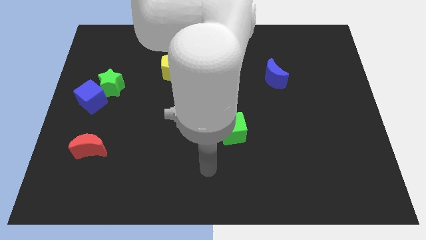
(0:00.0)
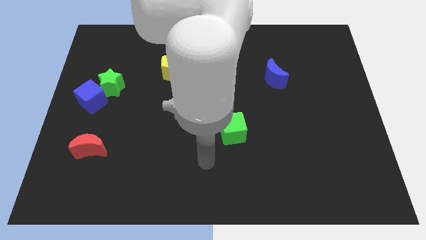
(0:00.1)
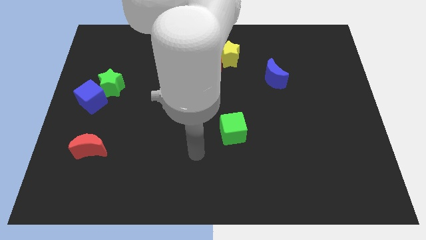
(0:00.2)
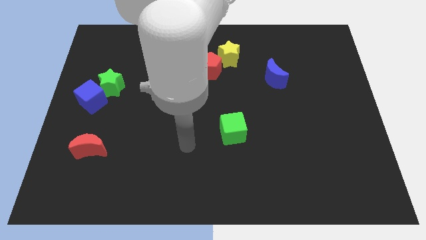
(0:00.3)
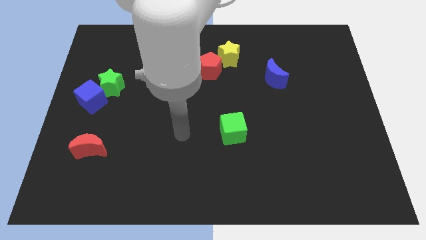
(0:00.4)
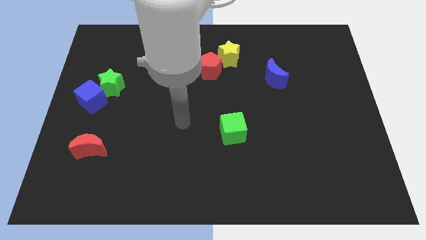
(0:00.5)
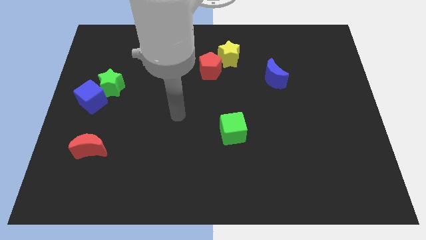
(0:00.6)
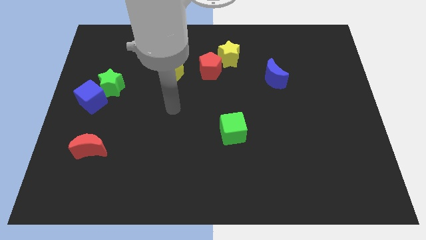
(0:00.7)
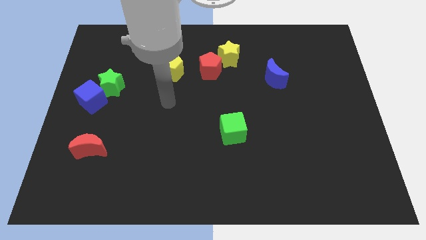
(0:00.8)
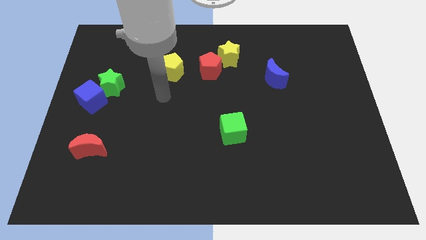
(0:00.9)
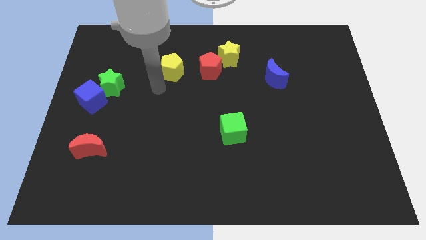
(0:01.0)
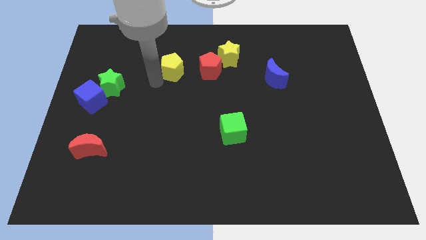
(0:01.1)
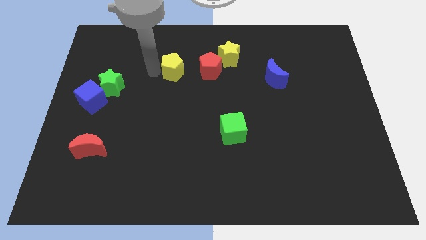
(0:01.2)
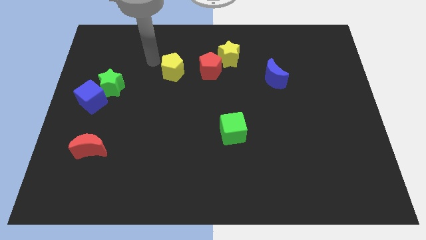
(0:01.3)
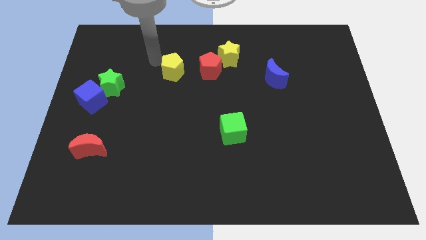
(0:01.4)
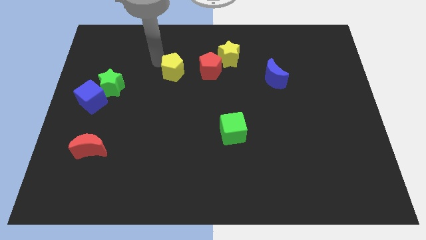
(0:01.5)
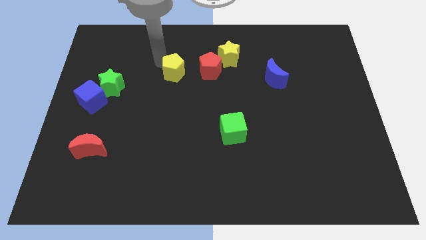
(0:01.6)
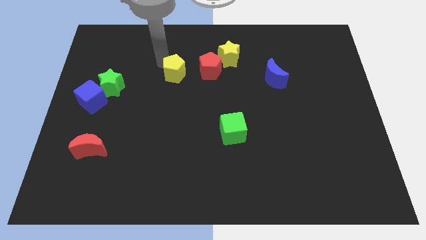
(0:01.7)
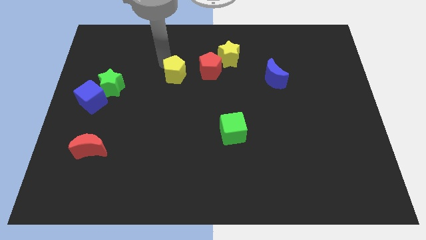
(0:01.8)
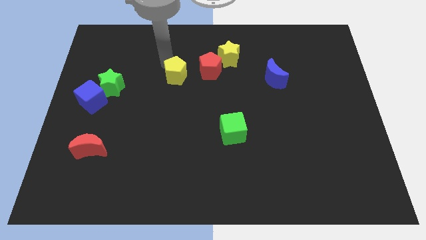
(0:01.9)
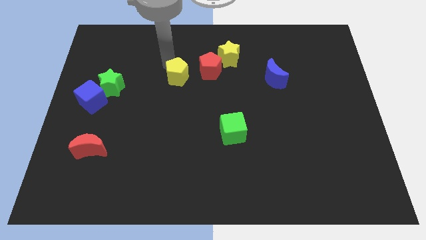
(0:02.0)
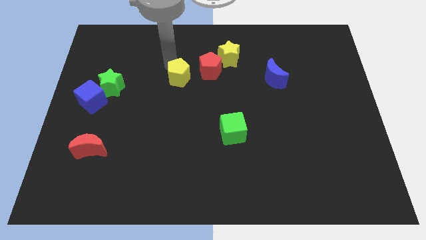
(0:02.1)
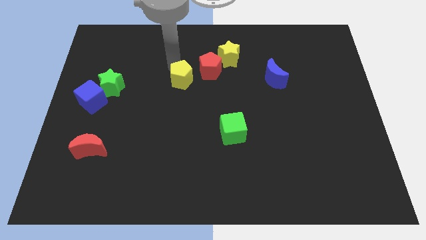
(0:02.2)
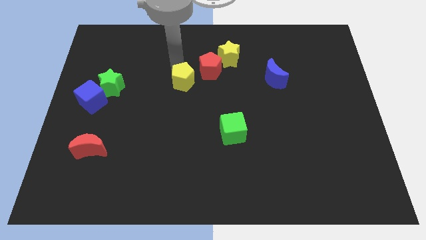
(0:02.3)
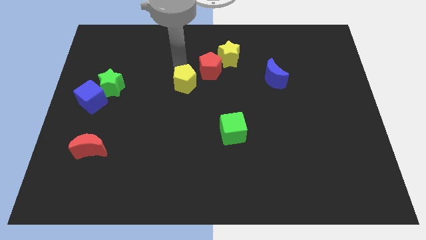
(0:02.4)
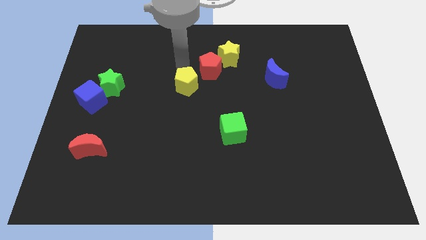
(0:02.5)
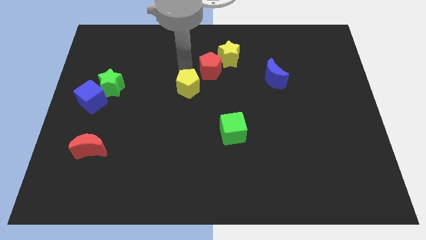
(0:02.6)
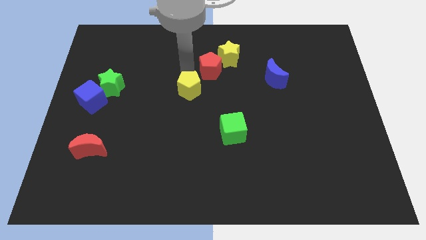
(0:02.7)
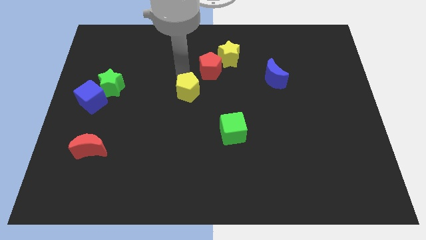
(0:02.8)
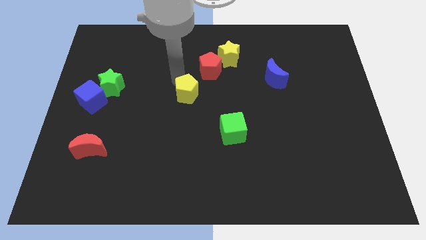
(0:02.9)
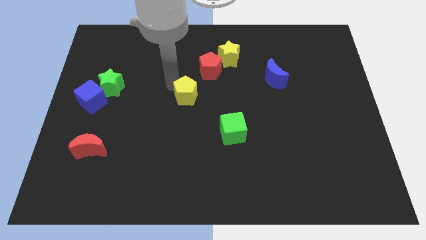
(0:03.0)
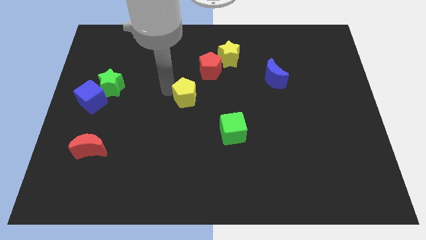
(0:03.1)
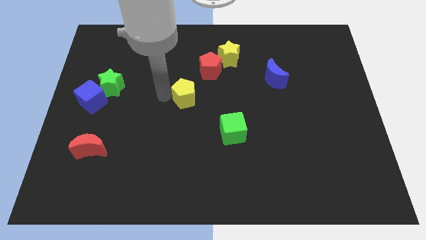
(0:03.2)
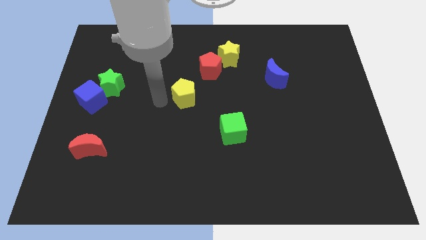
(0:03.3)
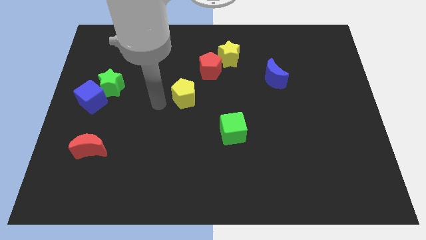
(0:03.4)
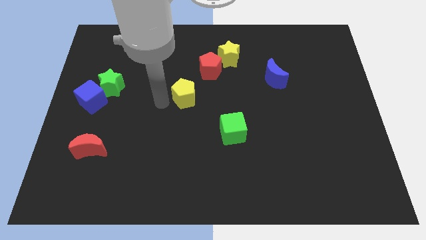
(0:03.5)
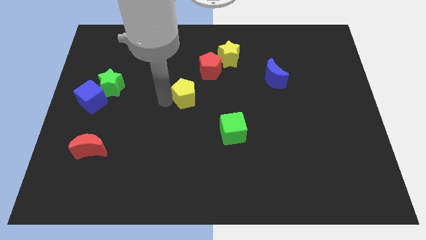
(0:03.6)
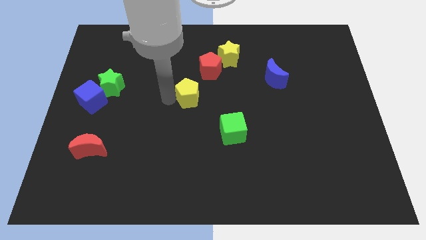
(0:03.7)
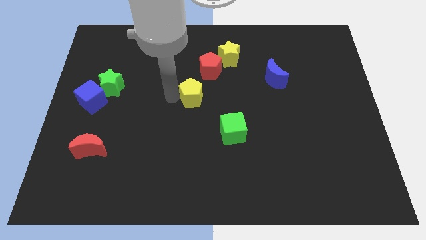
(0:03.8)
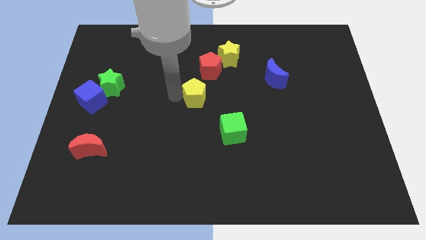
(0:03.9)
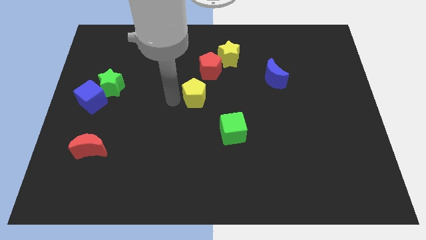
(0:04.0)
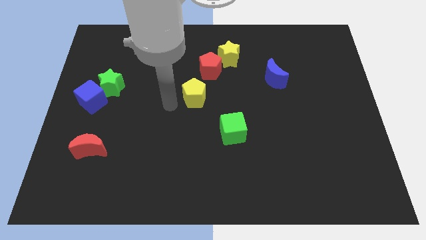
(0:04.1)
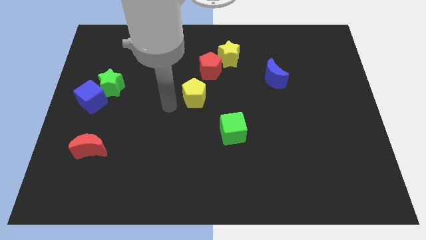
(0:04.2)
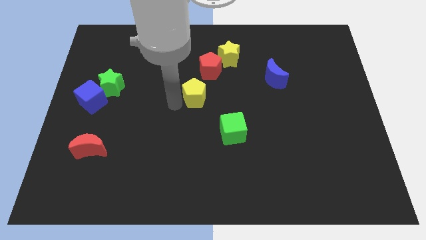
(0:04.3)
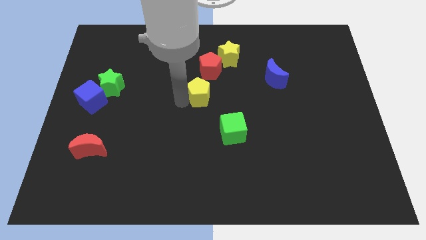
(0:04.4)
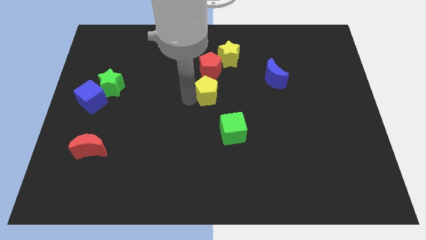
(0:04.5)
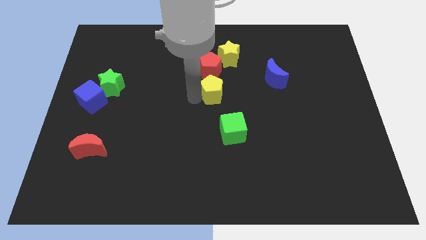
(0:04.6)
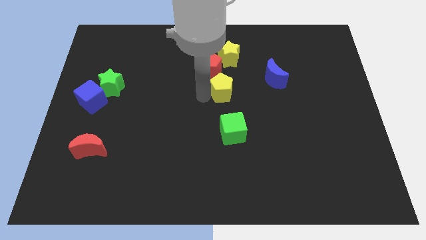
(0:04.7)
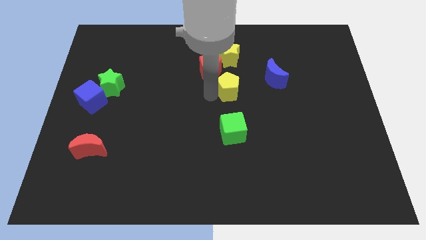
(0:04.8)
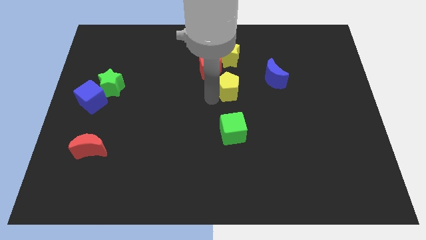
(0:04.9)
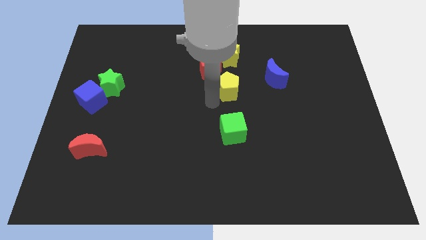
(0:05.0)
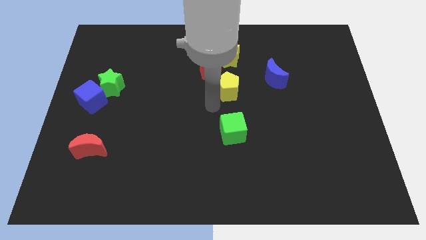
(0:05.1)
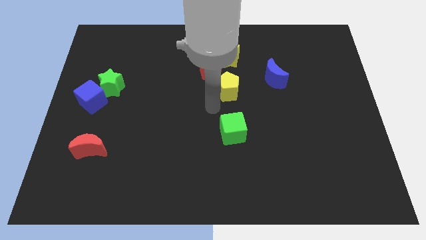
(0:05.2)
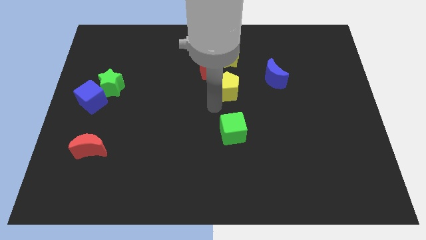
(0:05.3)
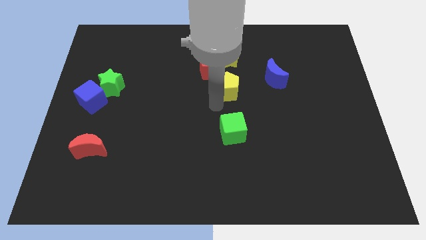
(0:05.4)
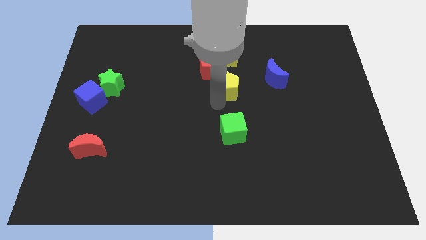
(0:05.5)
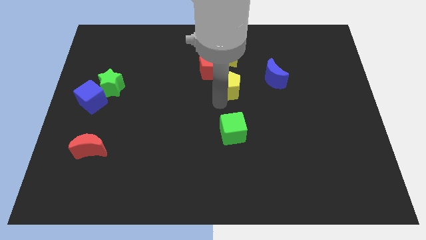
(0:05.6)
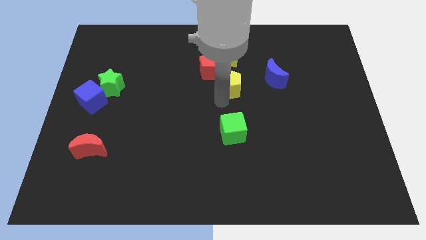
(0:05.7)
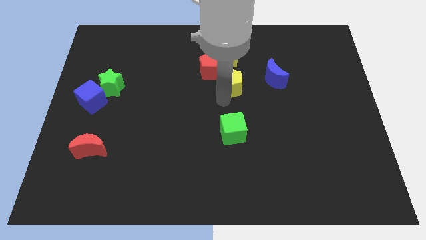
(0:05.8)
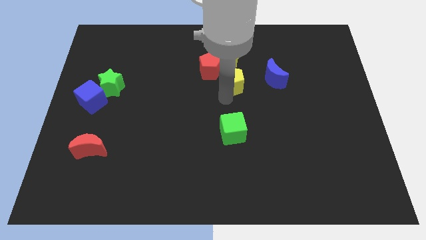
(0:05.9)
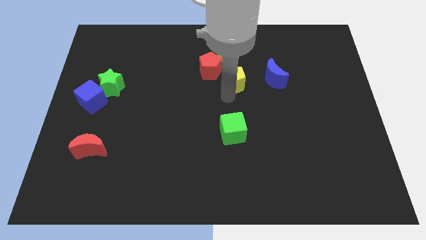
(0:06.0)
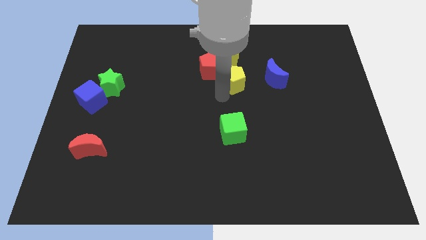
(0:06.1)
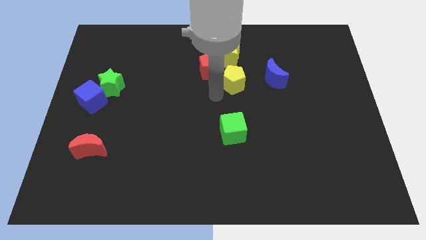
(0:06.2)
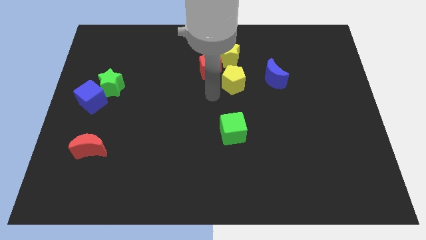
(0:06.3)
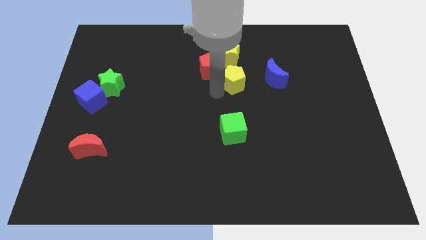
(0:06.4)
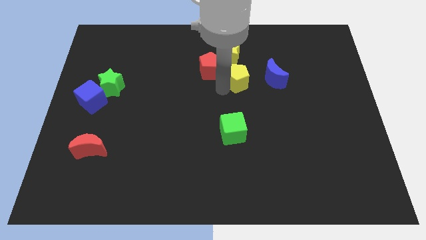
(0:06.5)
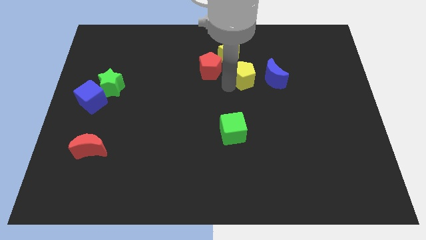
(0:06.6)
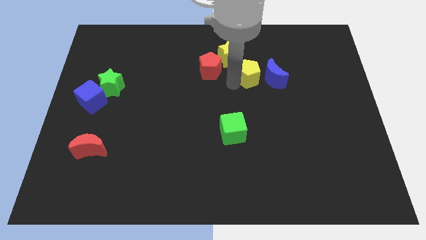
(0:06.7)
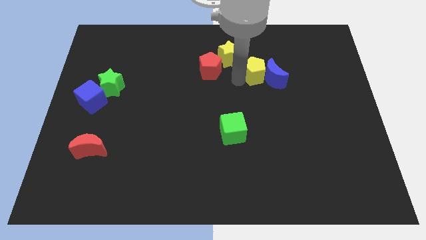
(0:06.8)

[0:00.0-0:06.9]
push the yellow pentagon close to the blue moon

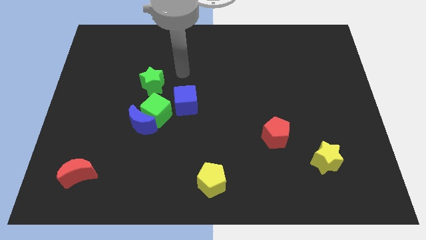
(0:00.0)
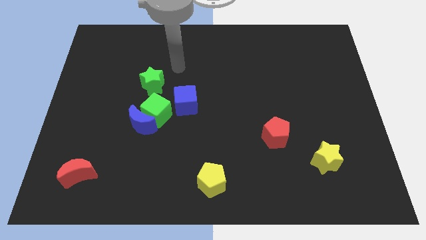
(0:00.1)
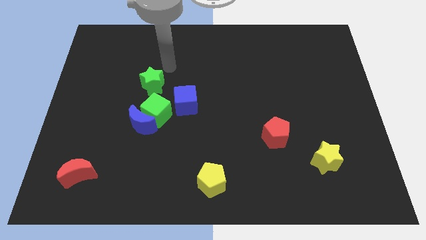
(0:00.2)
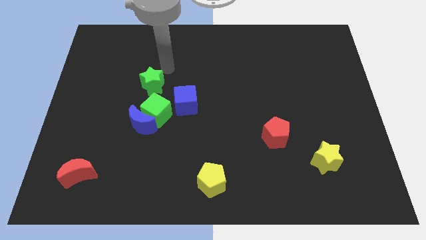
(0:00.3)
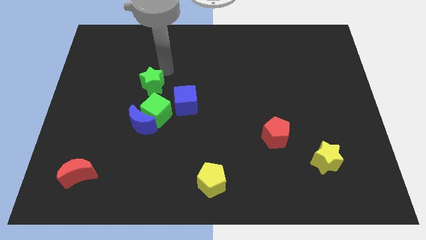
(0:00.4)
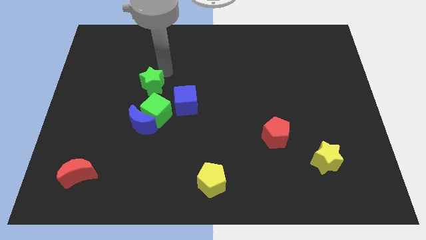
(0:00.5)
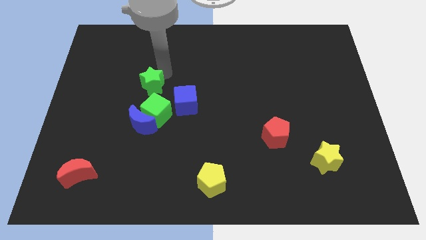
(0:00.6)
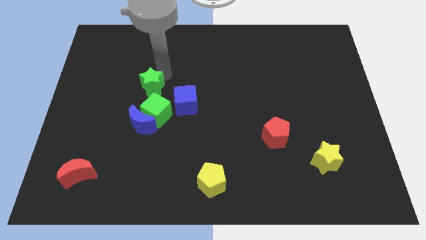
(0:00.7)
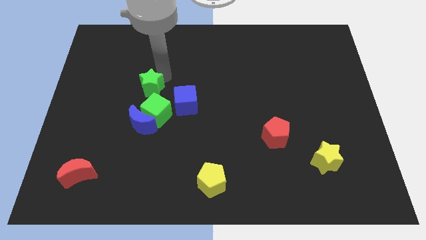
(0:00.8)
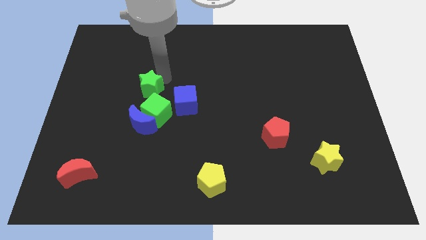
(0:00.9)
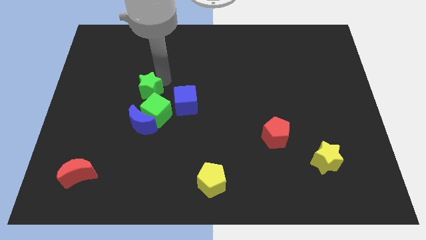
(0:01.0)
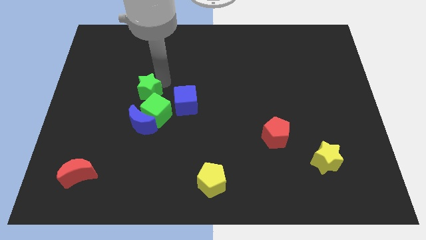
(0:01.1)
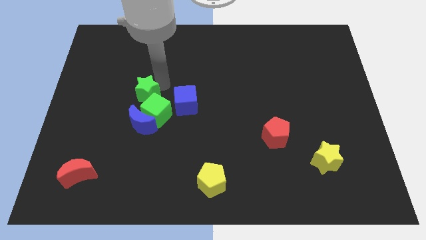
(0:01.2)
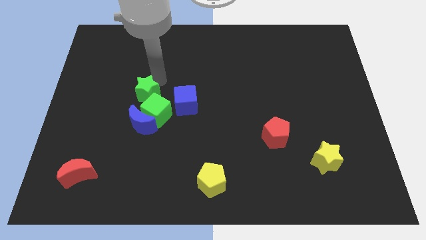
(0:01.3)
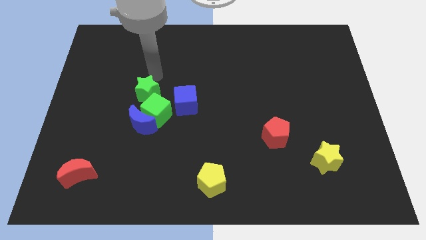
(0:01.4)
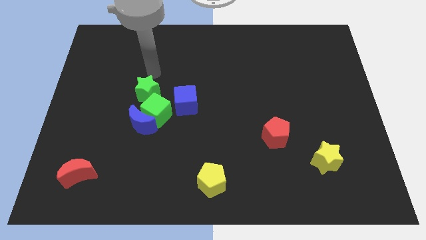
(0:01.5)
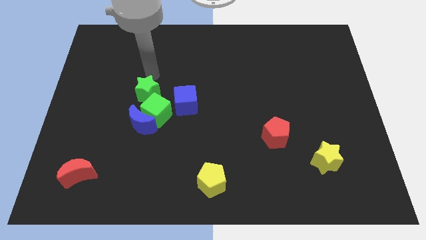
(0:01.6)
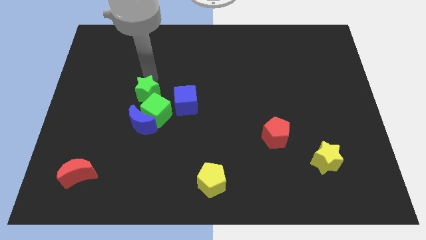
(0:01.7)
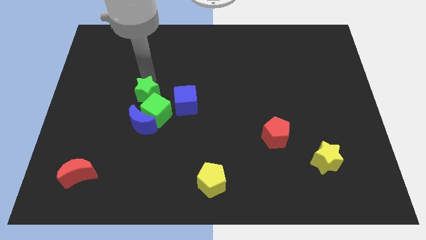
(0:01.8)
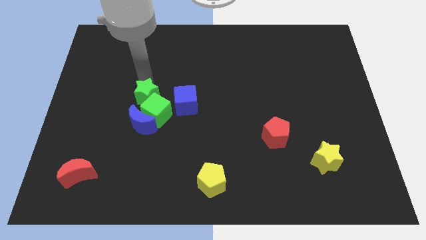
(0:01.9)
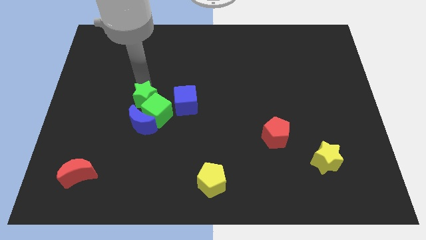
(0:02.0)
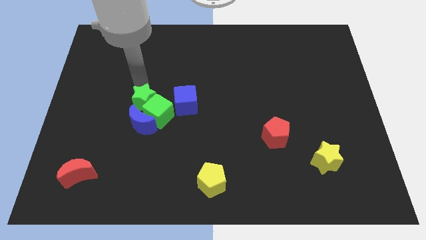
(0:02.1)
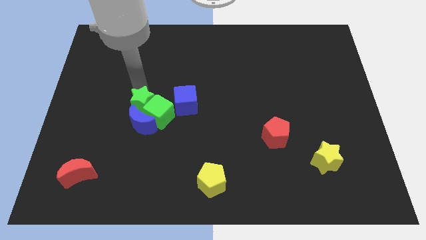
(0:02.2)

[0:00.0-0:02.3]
put the green star close to the blue moon
